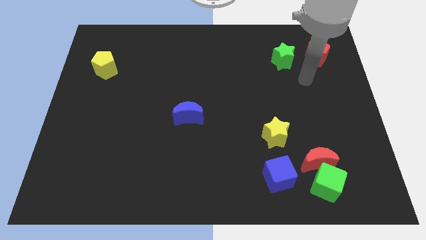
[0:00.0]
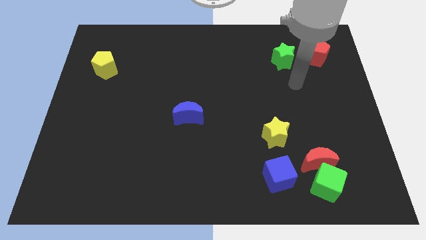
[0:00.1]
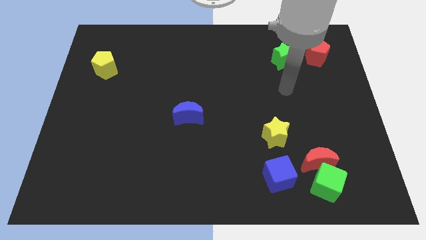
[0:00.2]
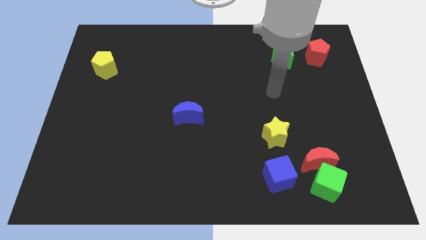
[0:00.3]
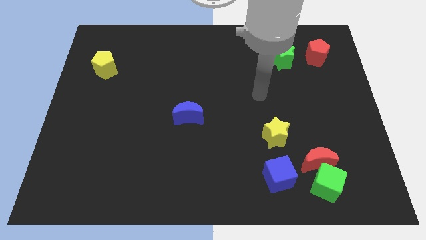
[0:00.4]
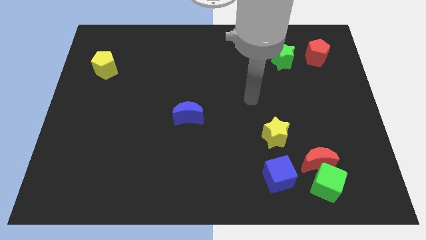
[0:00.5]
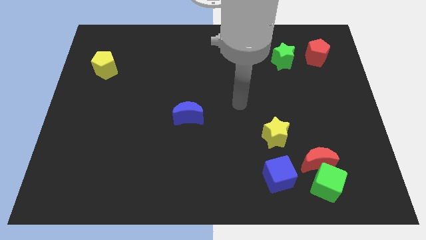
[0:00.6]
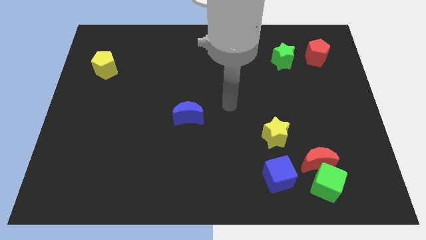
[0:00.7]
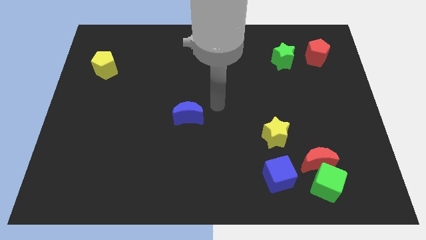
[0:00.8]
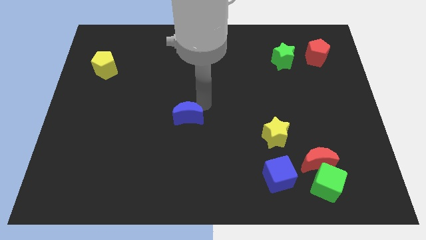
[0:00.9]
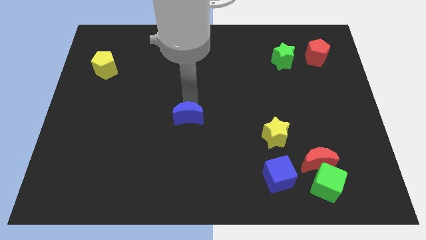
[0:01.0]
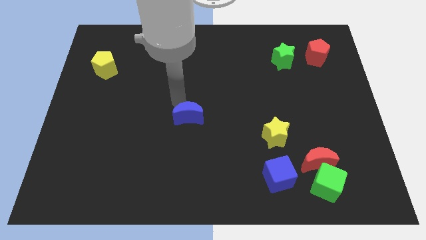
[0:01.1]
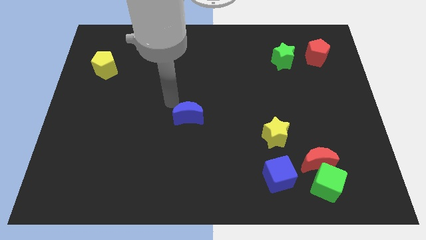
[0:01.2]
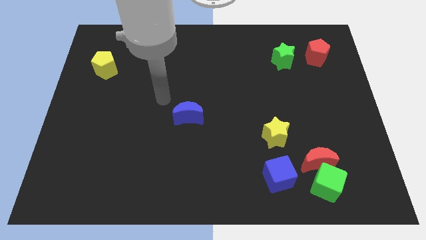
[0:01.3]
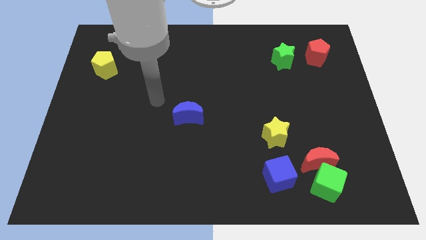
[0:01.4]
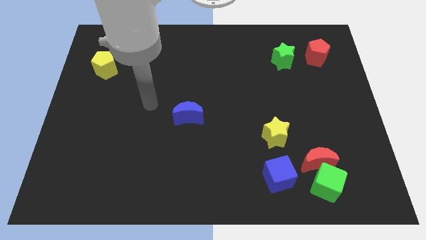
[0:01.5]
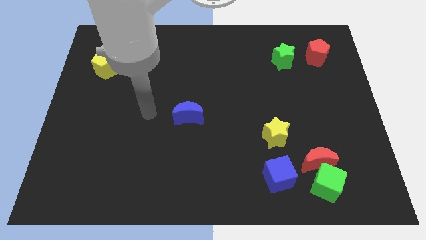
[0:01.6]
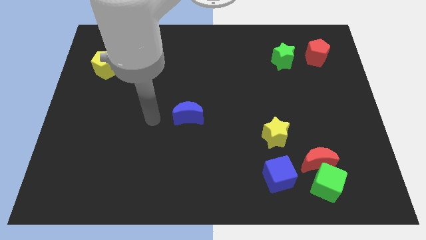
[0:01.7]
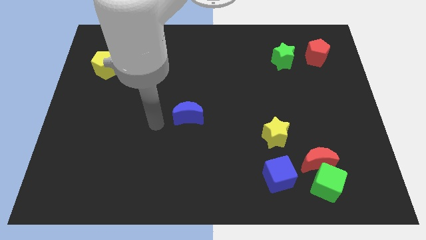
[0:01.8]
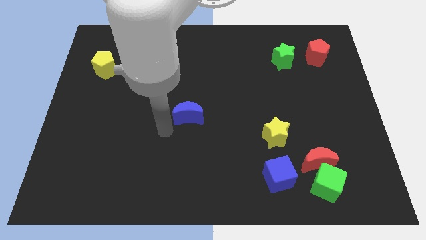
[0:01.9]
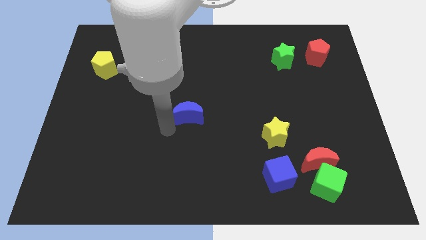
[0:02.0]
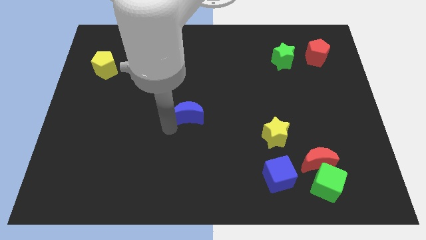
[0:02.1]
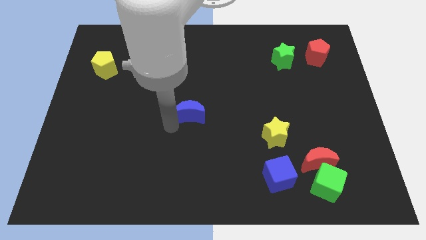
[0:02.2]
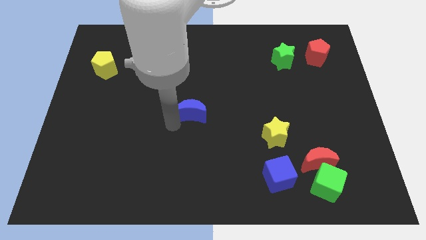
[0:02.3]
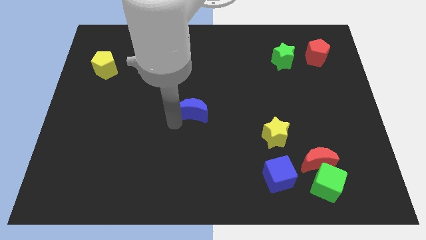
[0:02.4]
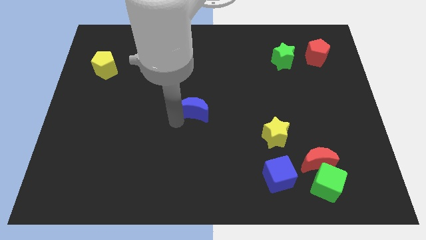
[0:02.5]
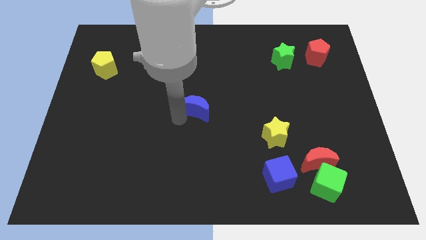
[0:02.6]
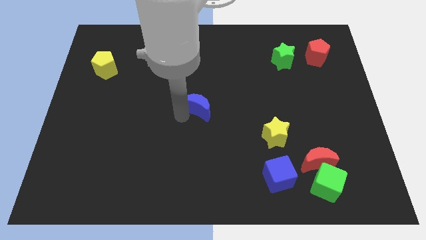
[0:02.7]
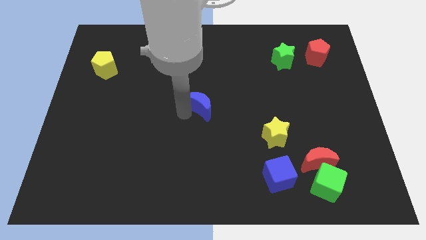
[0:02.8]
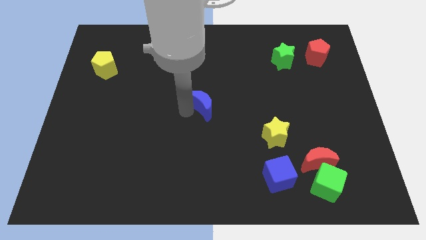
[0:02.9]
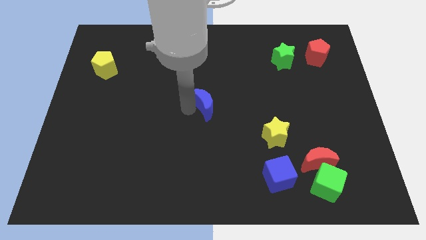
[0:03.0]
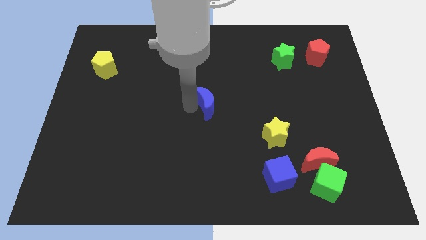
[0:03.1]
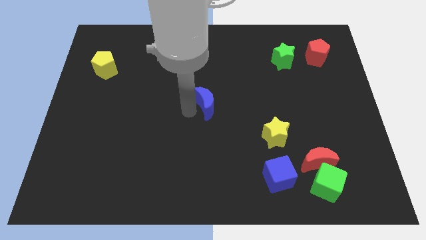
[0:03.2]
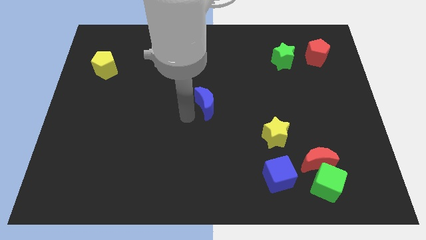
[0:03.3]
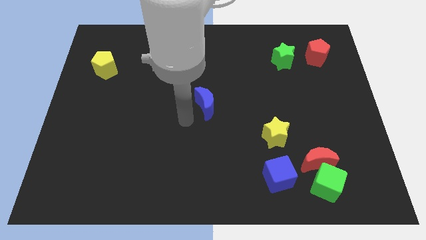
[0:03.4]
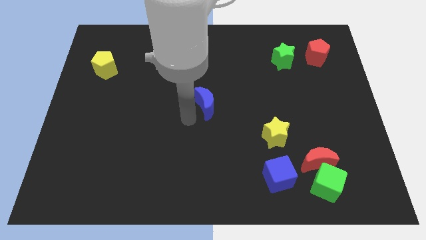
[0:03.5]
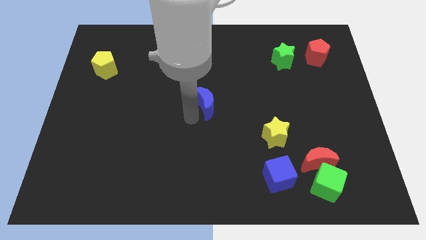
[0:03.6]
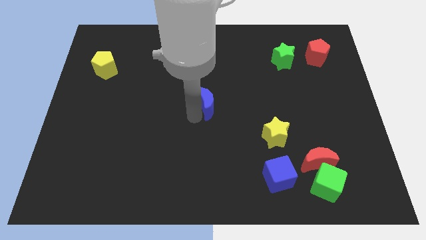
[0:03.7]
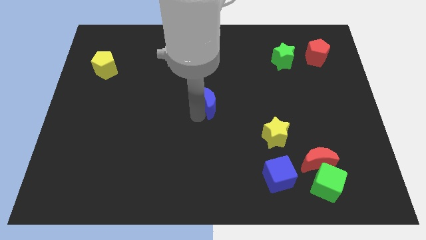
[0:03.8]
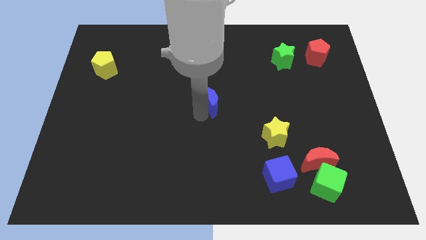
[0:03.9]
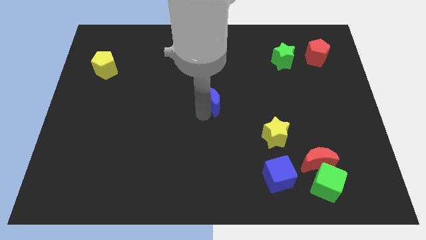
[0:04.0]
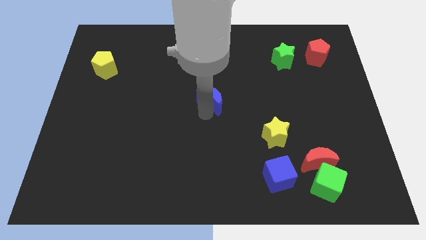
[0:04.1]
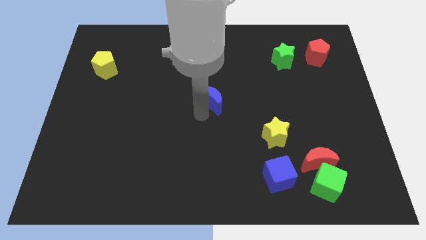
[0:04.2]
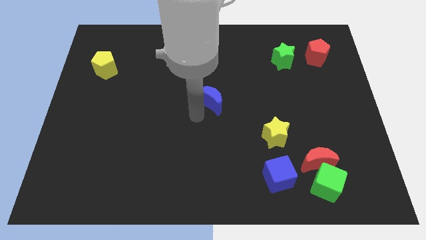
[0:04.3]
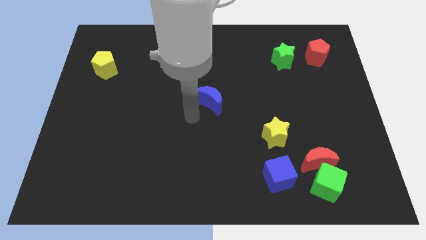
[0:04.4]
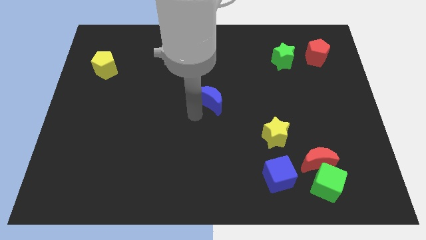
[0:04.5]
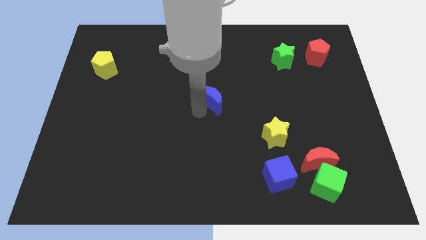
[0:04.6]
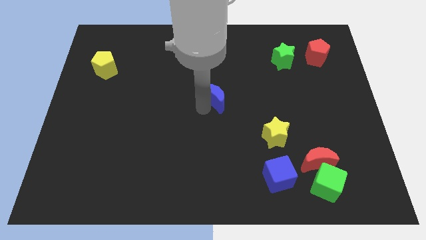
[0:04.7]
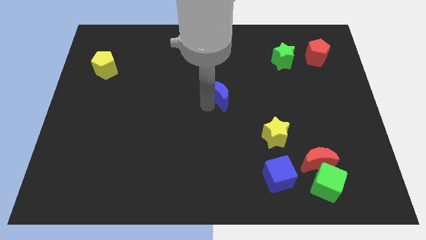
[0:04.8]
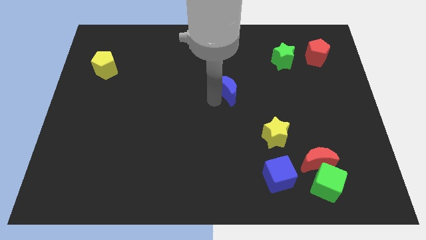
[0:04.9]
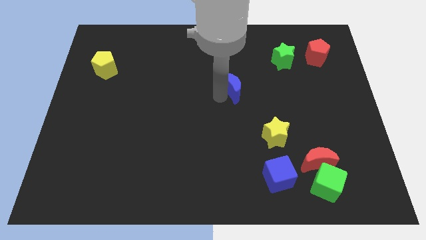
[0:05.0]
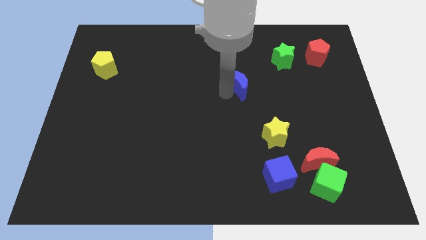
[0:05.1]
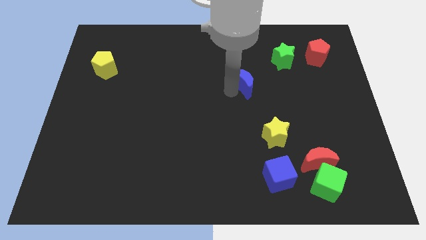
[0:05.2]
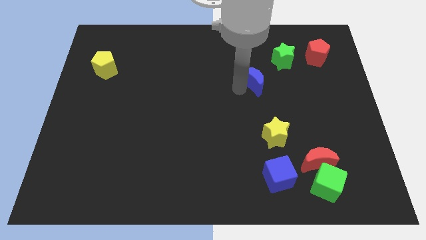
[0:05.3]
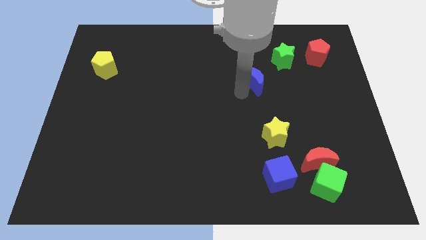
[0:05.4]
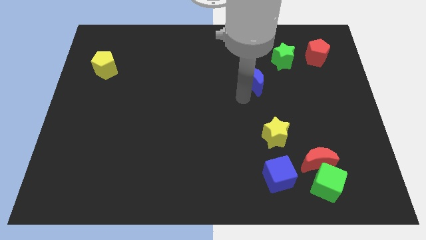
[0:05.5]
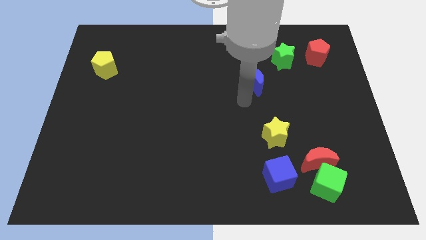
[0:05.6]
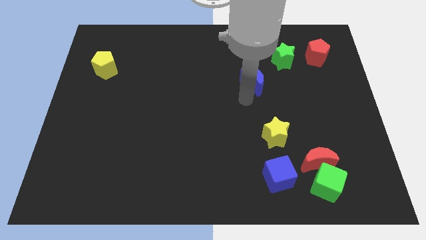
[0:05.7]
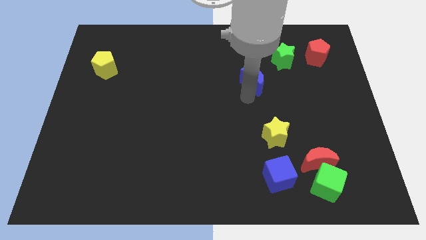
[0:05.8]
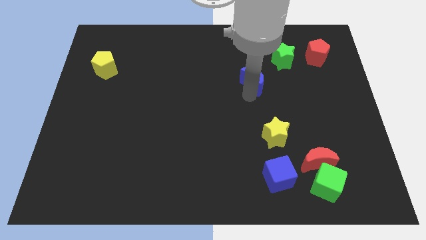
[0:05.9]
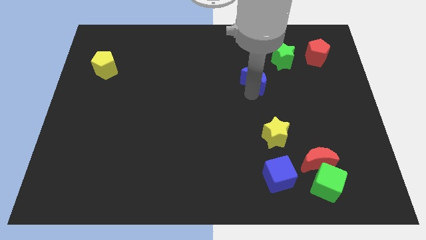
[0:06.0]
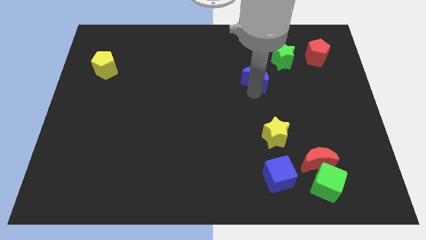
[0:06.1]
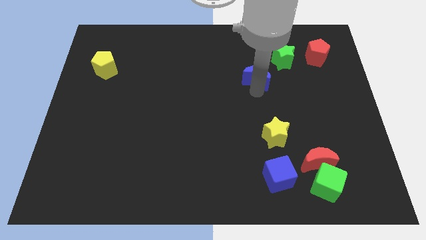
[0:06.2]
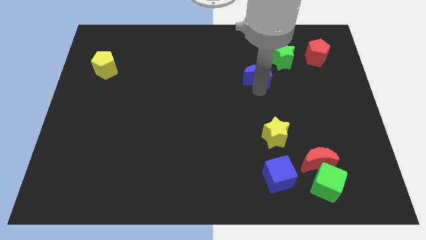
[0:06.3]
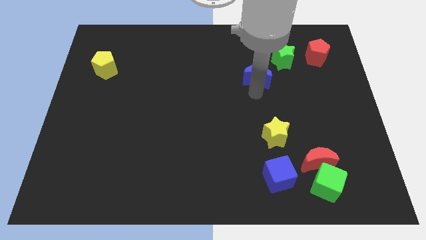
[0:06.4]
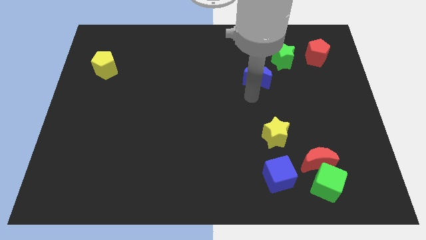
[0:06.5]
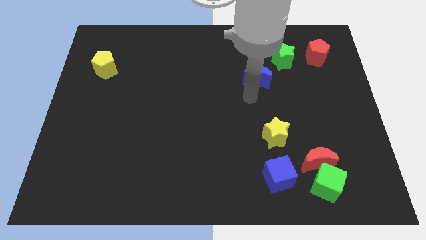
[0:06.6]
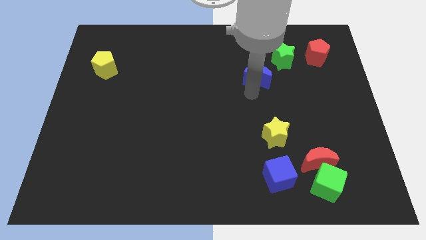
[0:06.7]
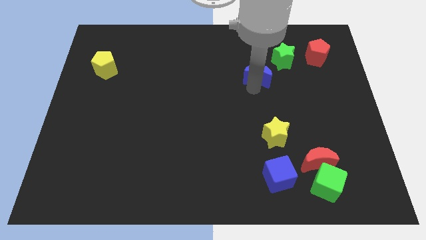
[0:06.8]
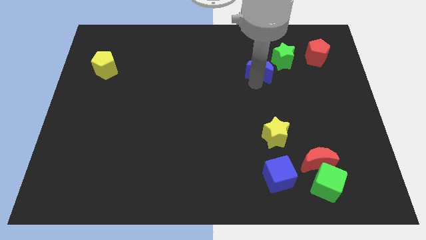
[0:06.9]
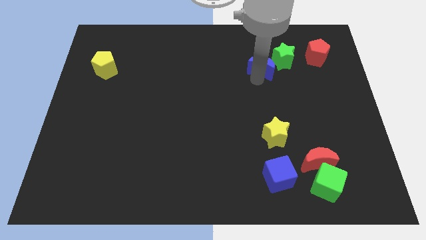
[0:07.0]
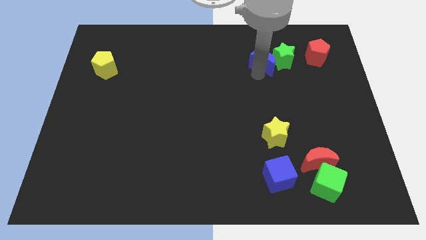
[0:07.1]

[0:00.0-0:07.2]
put the blue moon left of the red pentagon

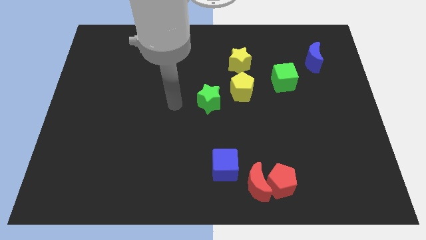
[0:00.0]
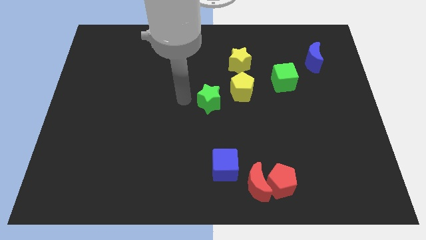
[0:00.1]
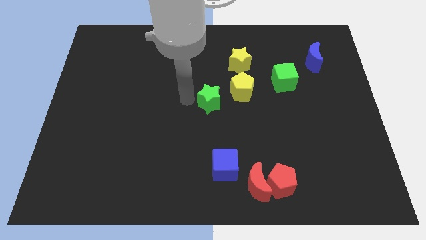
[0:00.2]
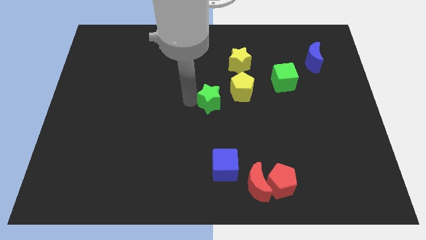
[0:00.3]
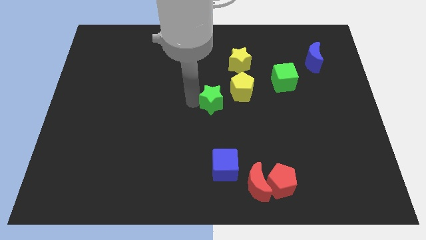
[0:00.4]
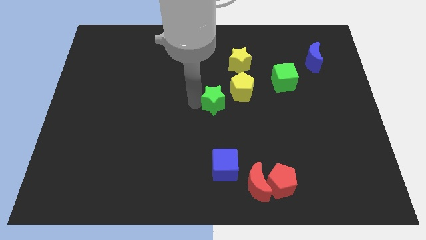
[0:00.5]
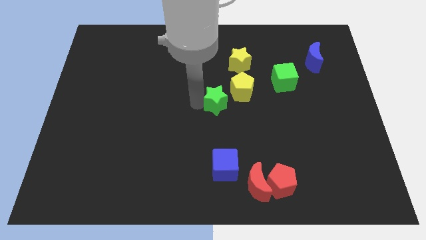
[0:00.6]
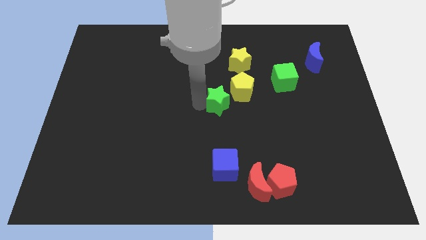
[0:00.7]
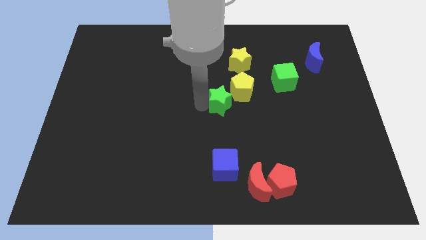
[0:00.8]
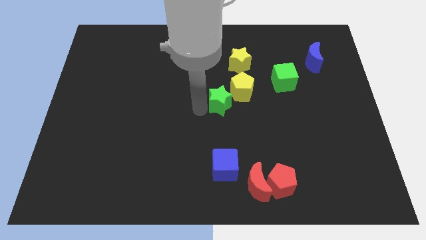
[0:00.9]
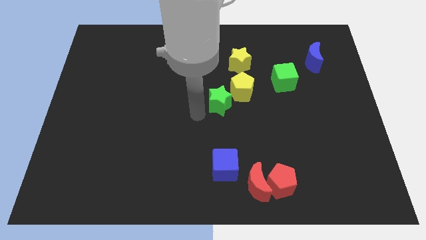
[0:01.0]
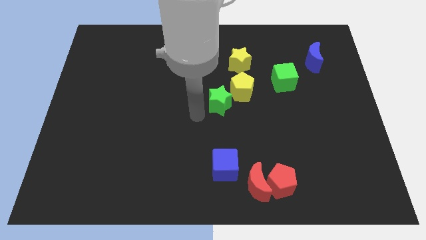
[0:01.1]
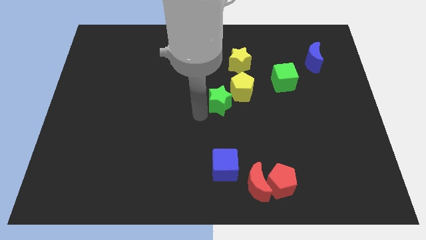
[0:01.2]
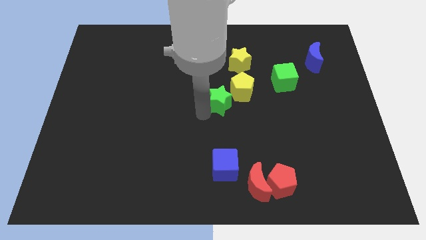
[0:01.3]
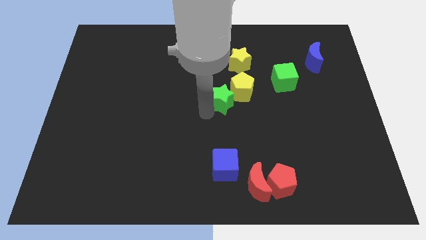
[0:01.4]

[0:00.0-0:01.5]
slide the green star to the bottom of the yellow star
